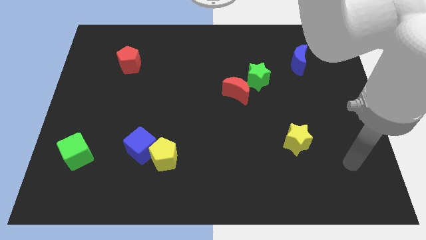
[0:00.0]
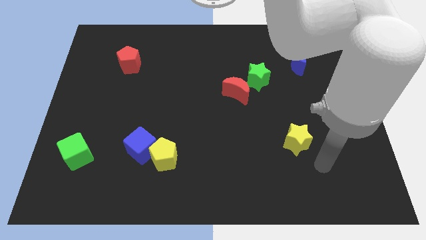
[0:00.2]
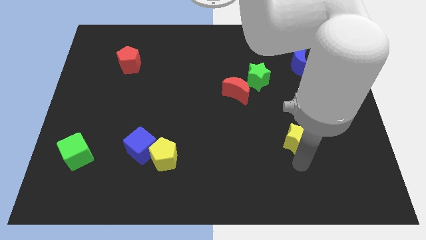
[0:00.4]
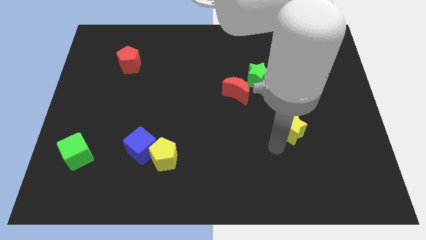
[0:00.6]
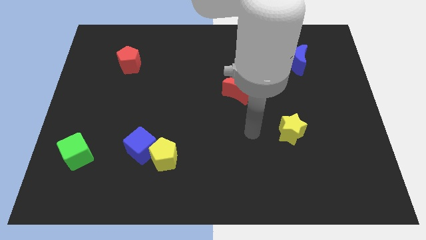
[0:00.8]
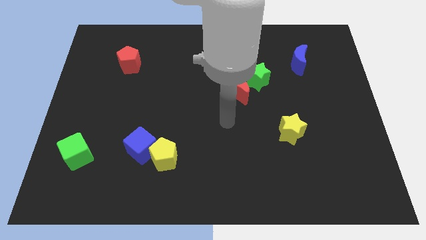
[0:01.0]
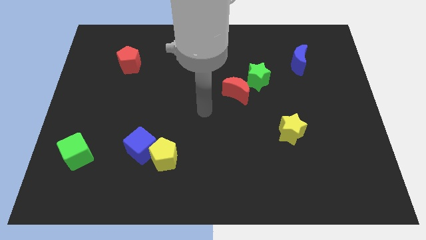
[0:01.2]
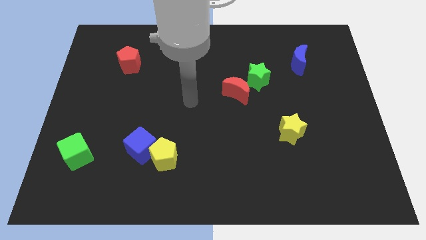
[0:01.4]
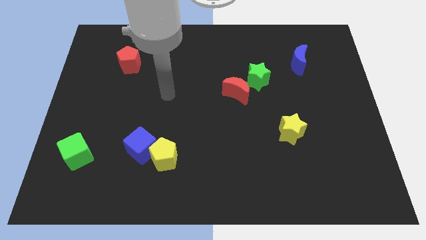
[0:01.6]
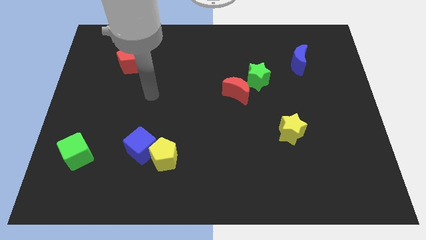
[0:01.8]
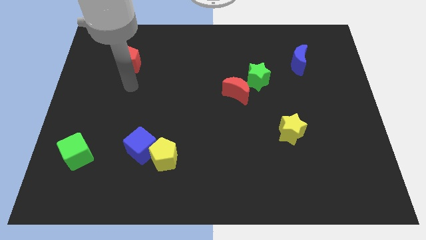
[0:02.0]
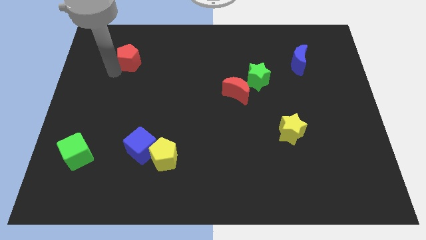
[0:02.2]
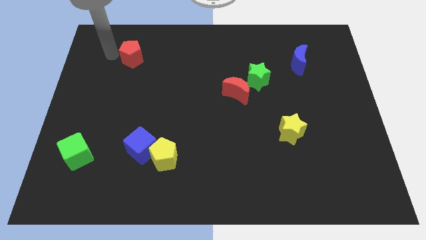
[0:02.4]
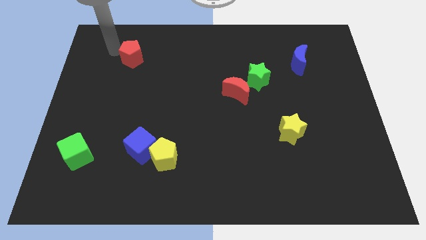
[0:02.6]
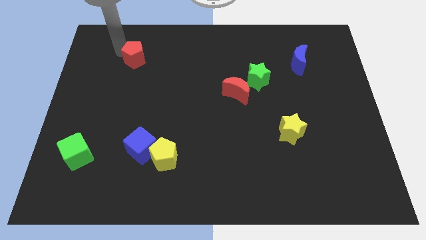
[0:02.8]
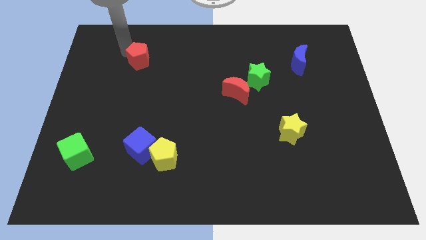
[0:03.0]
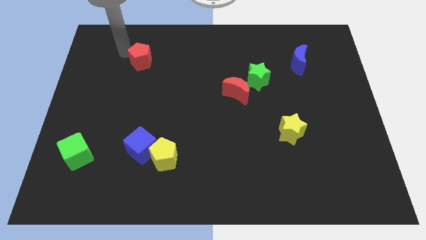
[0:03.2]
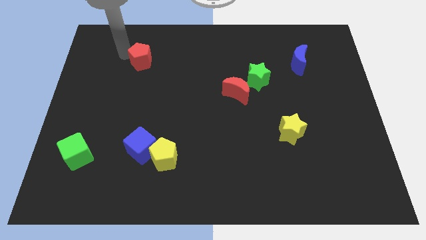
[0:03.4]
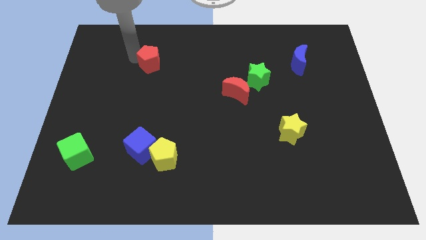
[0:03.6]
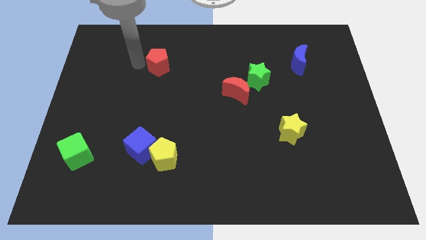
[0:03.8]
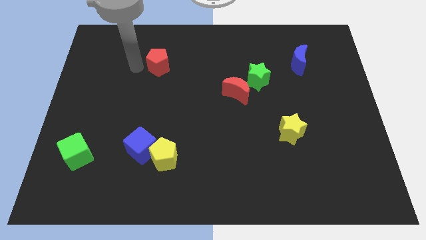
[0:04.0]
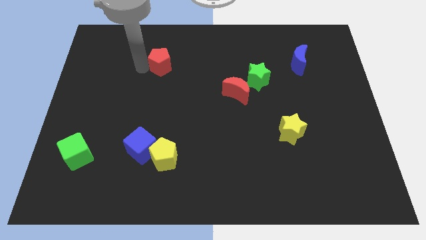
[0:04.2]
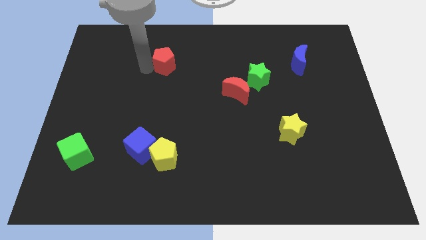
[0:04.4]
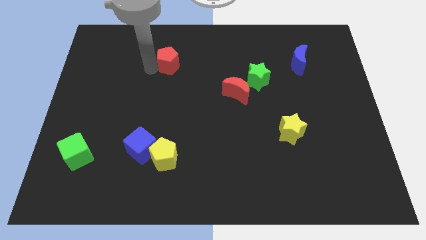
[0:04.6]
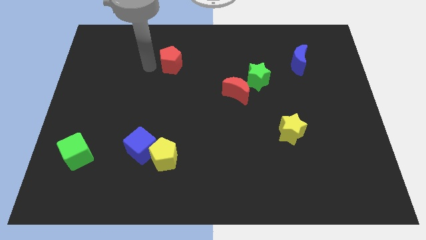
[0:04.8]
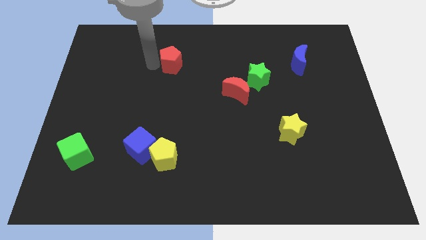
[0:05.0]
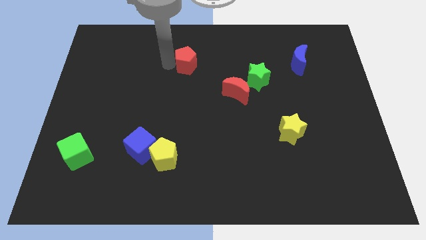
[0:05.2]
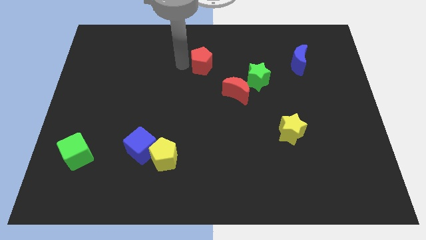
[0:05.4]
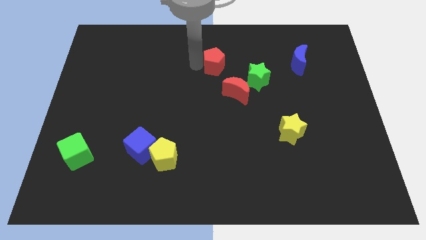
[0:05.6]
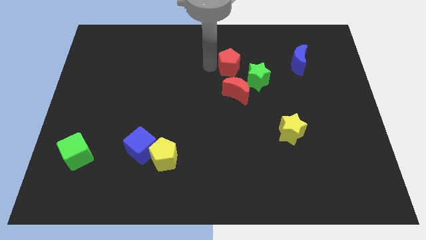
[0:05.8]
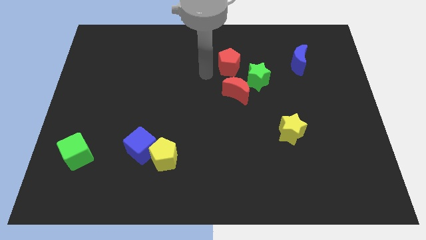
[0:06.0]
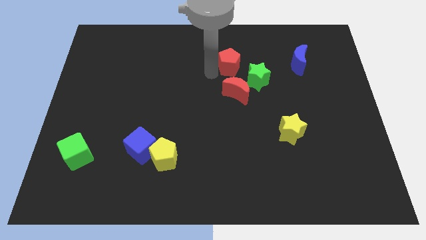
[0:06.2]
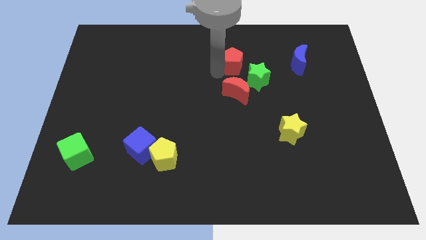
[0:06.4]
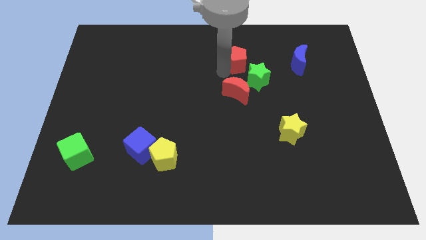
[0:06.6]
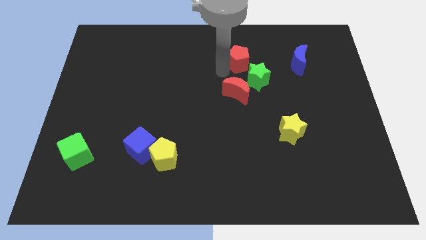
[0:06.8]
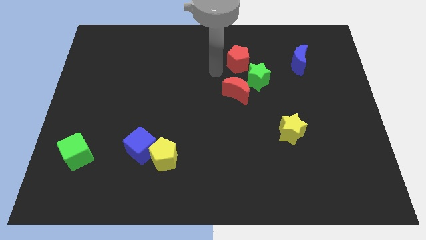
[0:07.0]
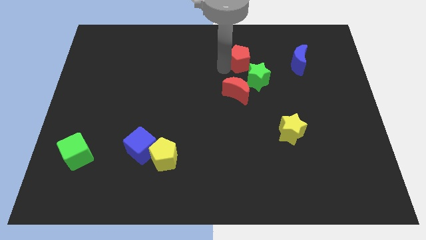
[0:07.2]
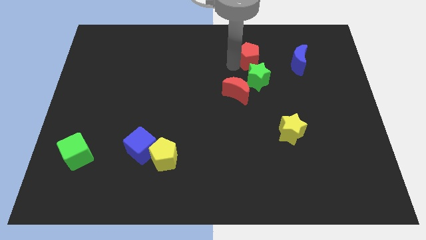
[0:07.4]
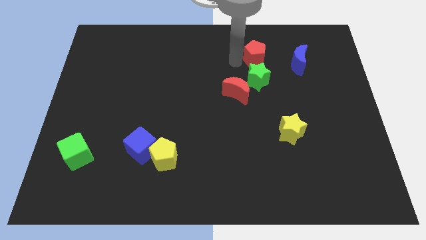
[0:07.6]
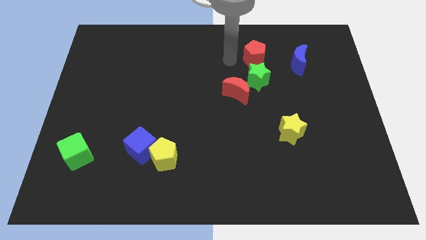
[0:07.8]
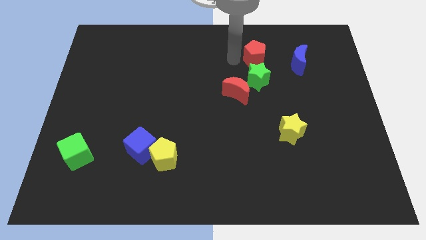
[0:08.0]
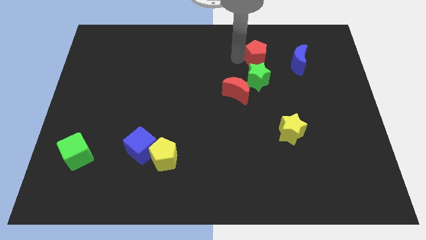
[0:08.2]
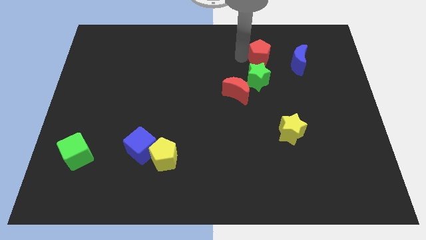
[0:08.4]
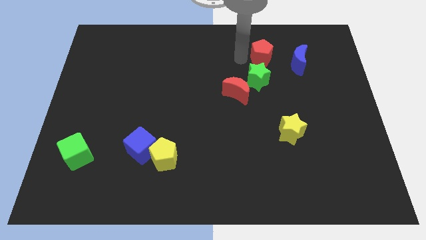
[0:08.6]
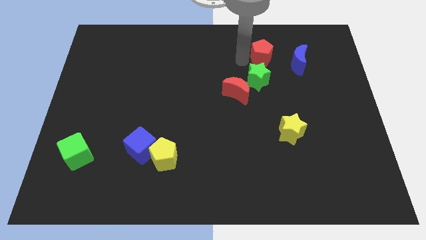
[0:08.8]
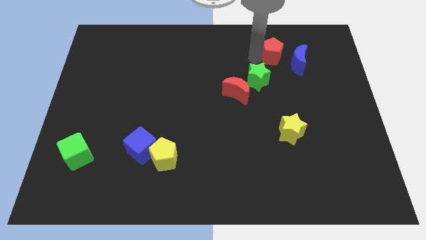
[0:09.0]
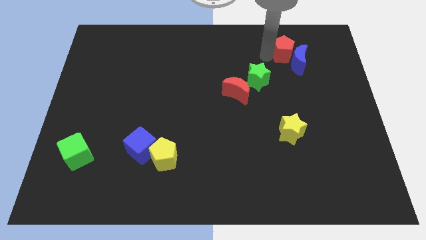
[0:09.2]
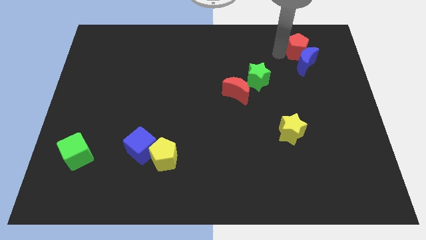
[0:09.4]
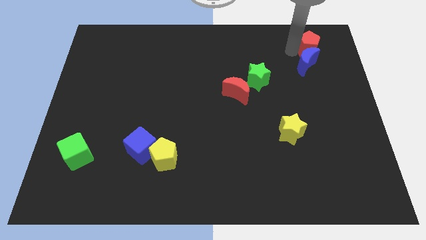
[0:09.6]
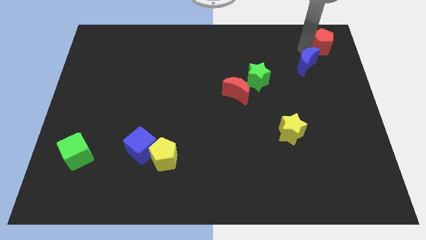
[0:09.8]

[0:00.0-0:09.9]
push the red pentagon to the top right

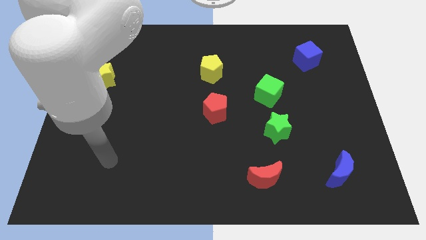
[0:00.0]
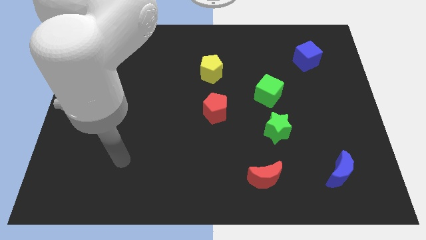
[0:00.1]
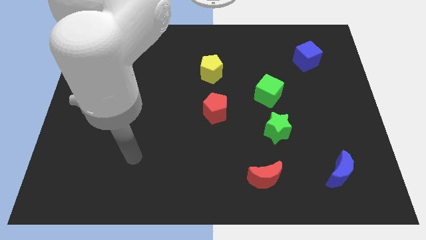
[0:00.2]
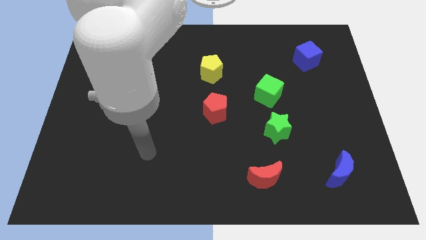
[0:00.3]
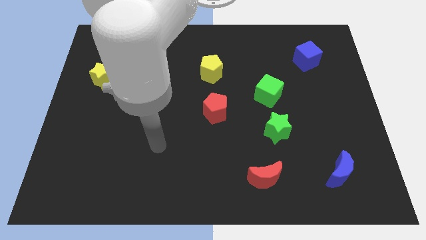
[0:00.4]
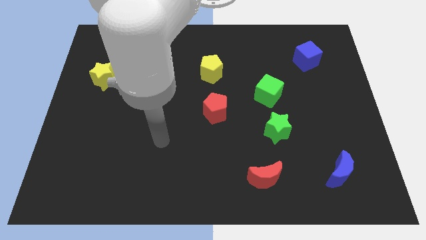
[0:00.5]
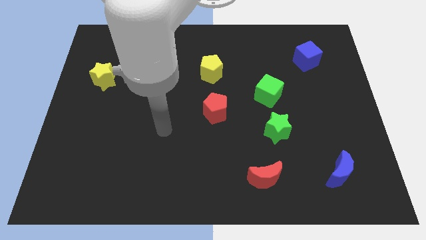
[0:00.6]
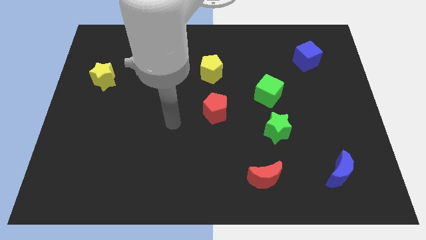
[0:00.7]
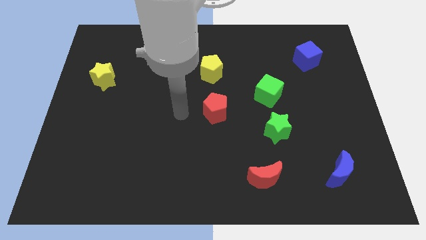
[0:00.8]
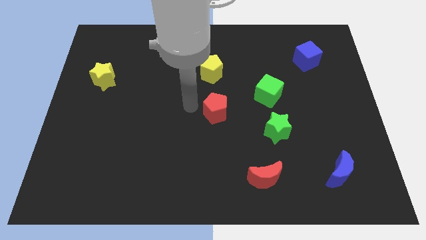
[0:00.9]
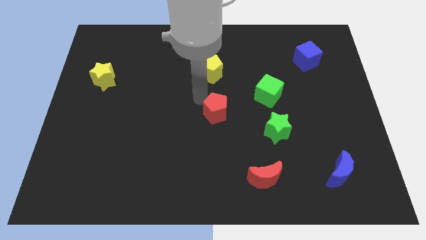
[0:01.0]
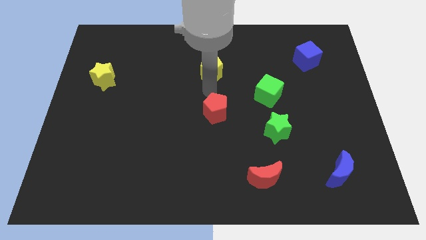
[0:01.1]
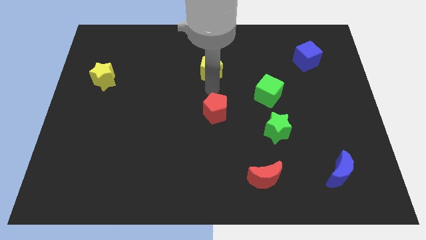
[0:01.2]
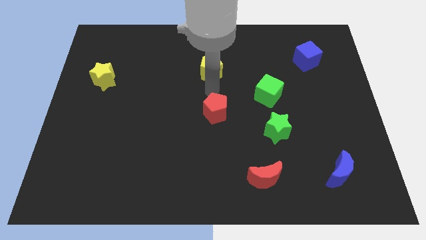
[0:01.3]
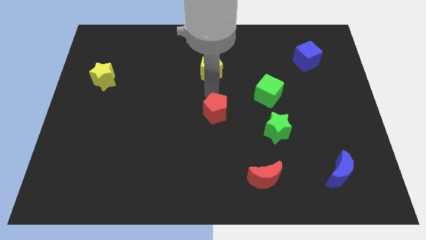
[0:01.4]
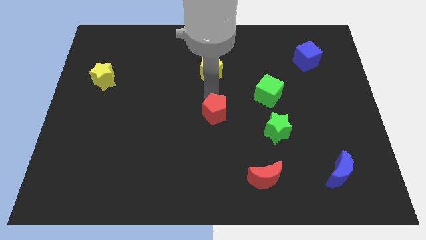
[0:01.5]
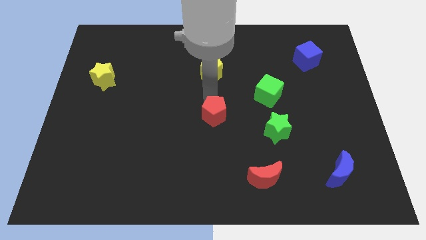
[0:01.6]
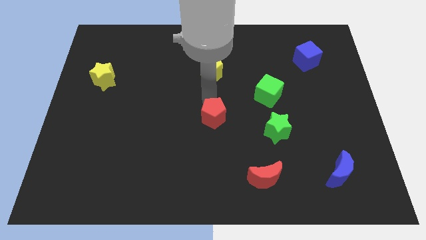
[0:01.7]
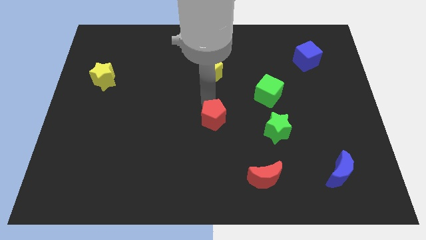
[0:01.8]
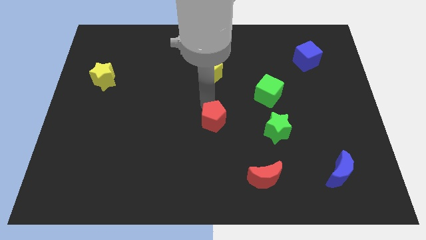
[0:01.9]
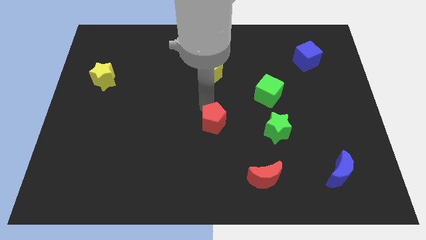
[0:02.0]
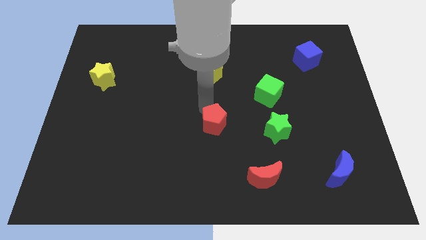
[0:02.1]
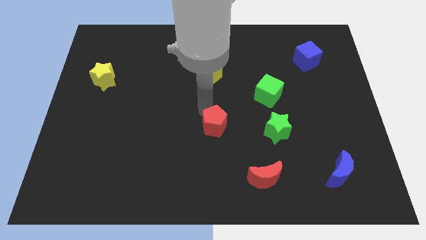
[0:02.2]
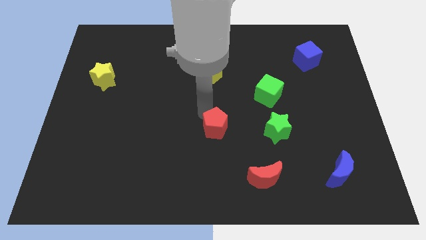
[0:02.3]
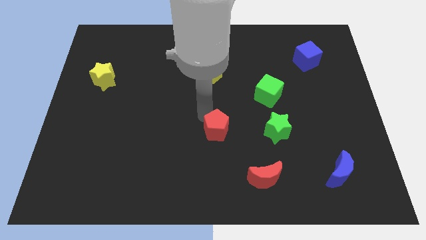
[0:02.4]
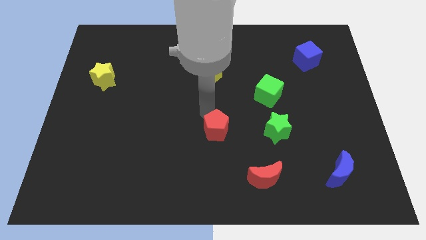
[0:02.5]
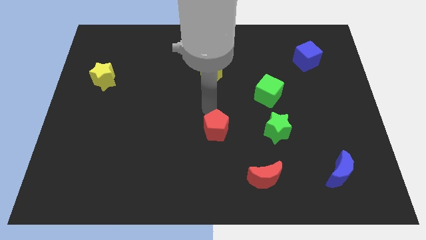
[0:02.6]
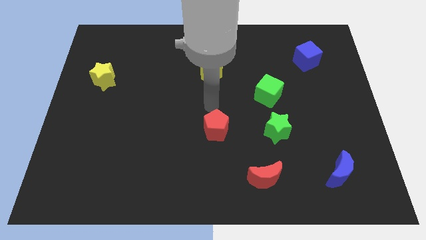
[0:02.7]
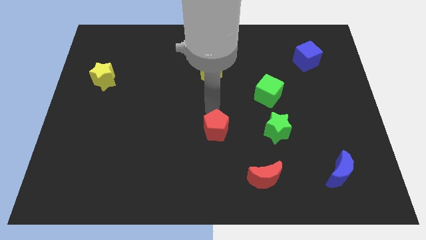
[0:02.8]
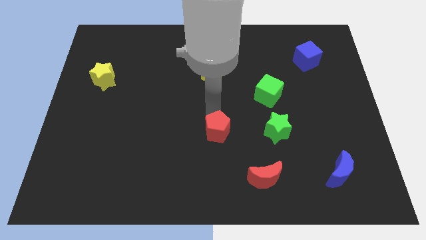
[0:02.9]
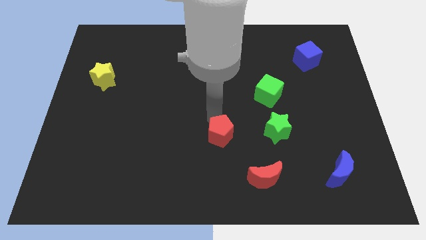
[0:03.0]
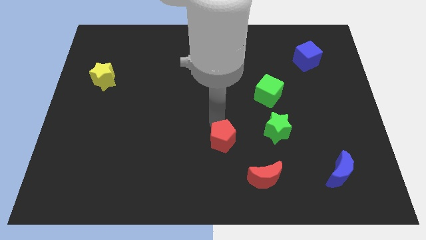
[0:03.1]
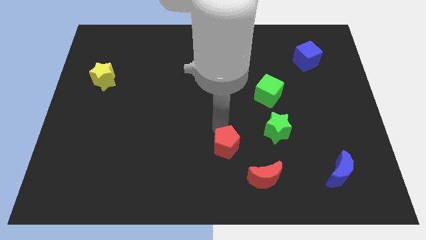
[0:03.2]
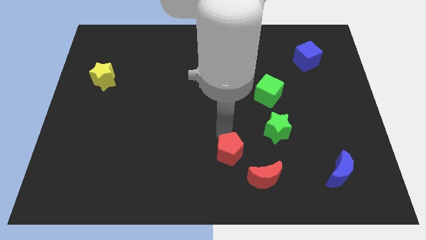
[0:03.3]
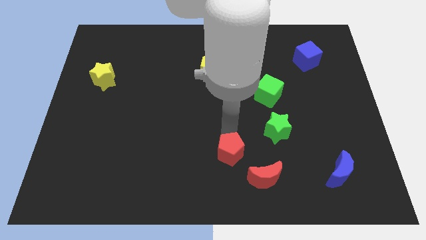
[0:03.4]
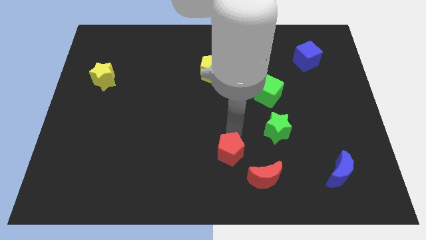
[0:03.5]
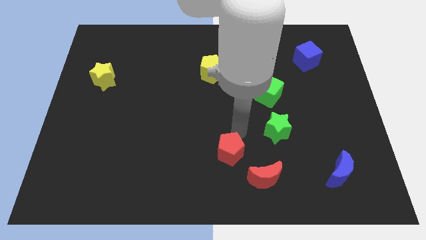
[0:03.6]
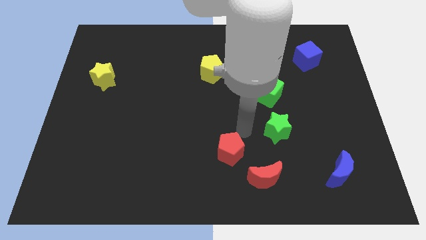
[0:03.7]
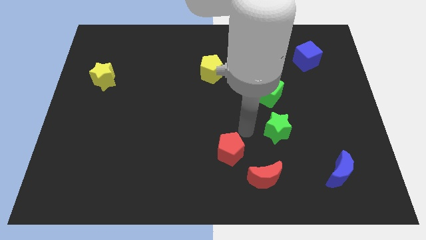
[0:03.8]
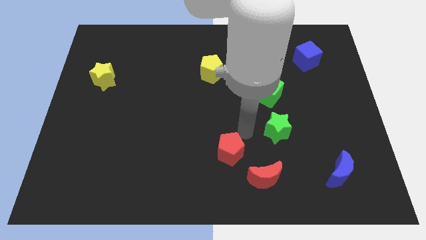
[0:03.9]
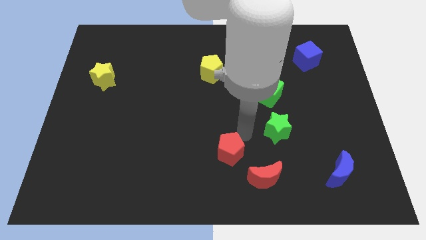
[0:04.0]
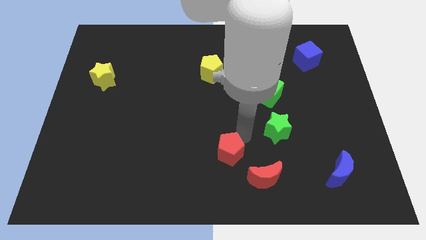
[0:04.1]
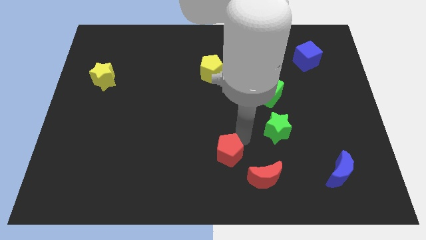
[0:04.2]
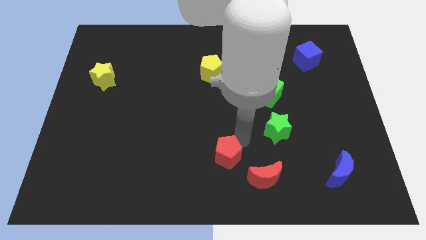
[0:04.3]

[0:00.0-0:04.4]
push the red pentagon to the bottom
